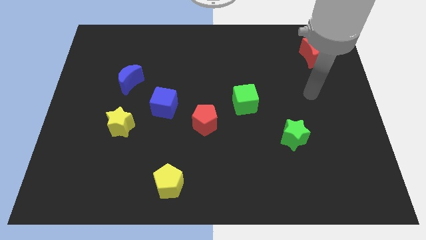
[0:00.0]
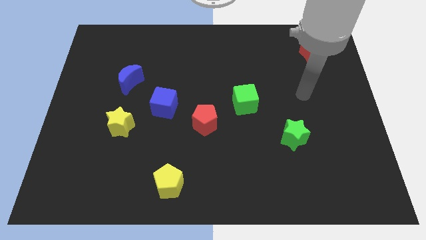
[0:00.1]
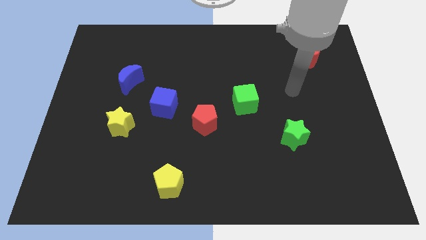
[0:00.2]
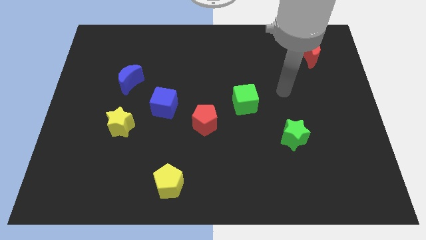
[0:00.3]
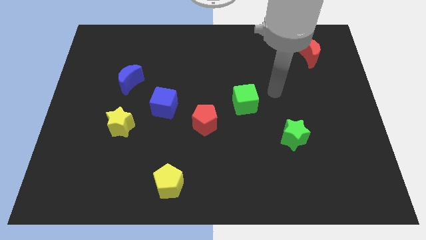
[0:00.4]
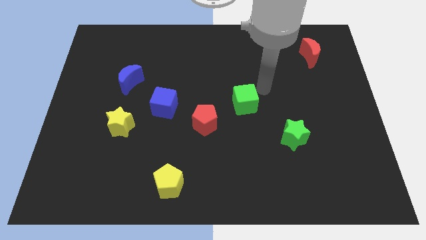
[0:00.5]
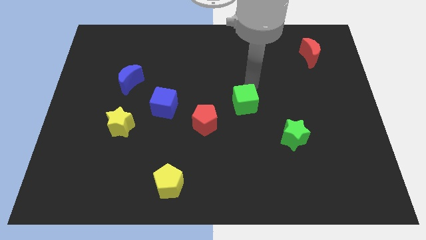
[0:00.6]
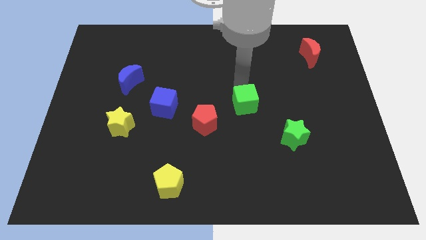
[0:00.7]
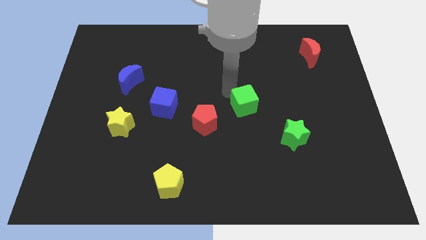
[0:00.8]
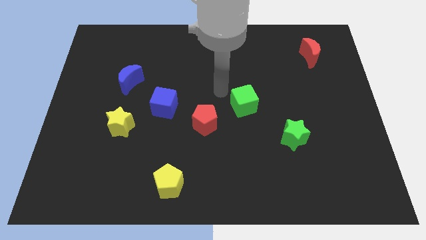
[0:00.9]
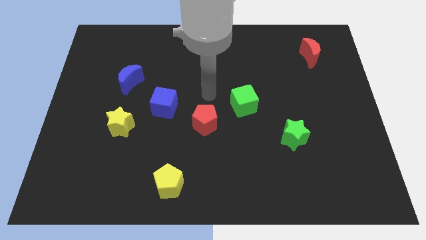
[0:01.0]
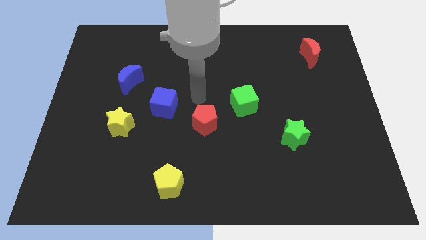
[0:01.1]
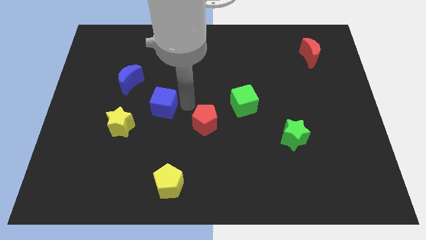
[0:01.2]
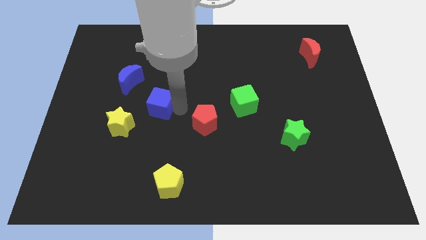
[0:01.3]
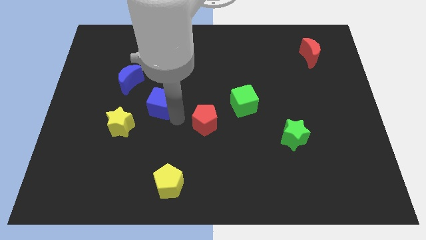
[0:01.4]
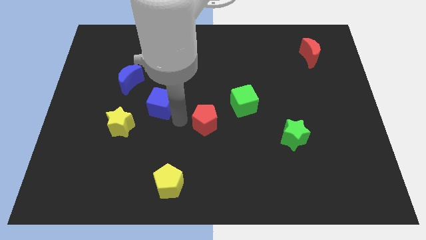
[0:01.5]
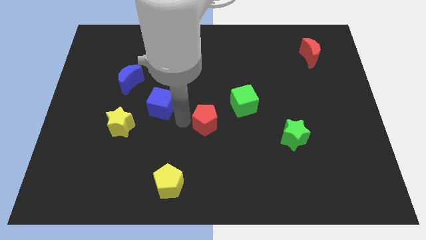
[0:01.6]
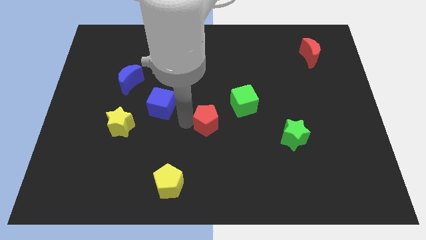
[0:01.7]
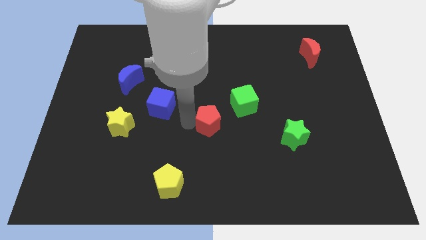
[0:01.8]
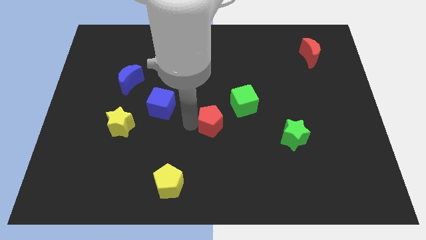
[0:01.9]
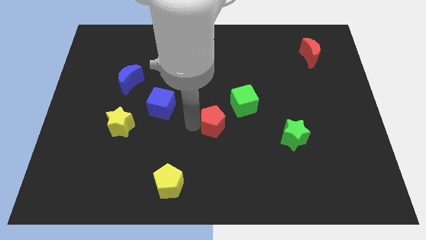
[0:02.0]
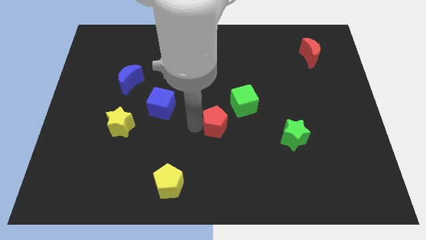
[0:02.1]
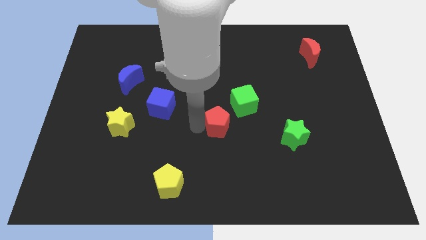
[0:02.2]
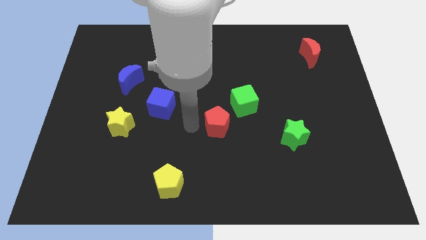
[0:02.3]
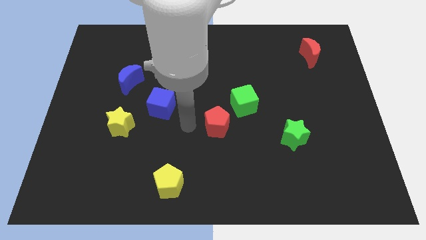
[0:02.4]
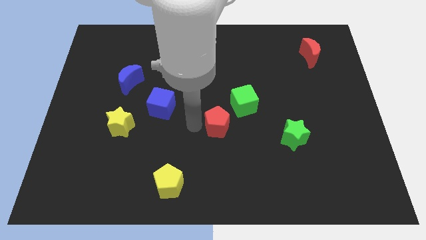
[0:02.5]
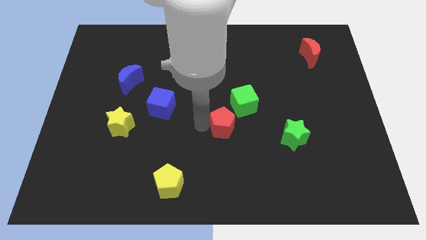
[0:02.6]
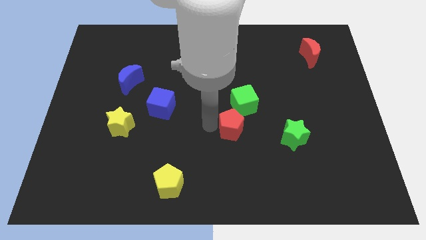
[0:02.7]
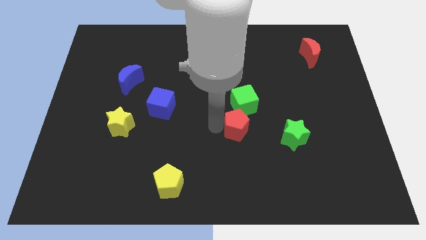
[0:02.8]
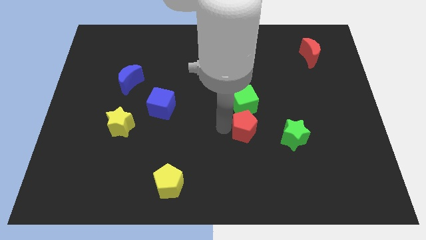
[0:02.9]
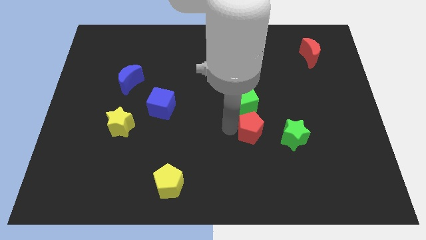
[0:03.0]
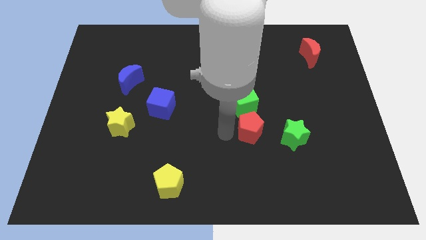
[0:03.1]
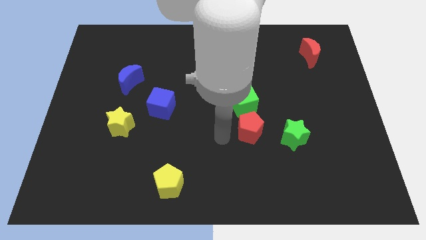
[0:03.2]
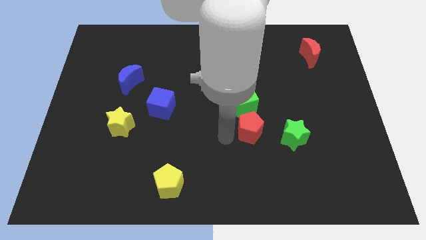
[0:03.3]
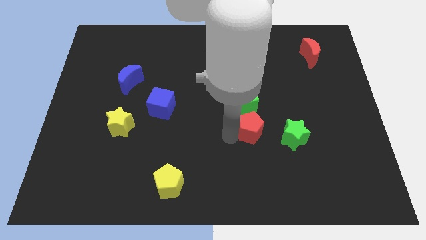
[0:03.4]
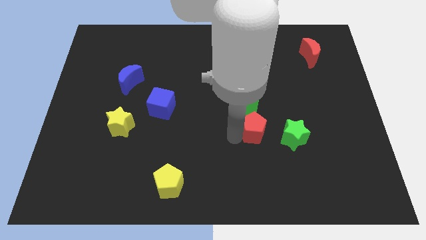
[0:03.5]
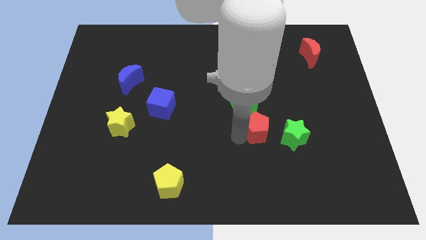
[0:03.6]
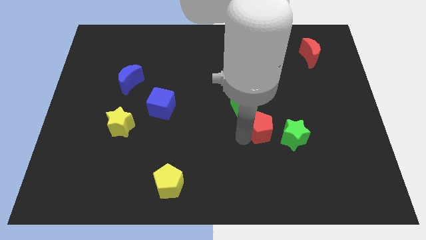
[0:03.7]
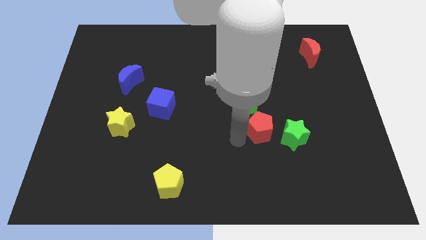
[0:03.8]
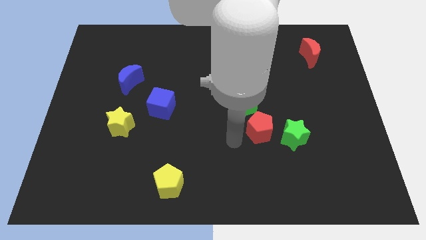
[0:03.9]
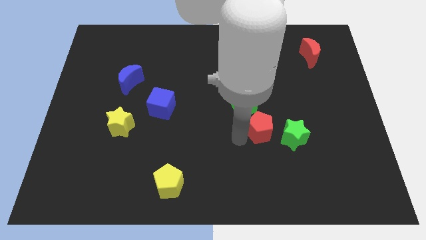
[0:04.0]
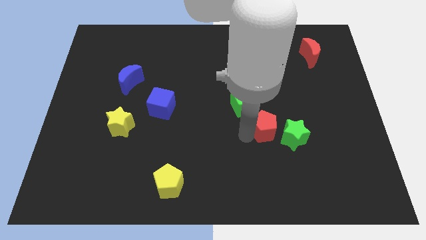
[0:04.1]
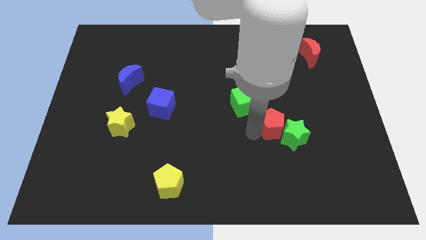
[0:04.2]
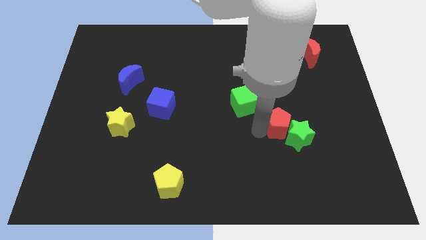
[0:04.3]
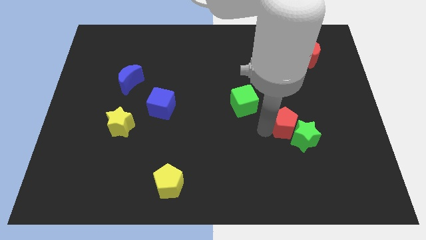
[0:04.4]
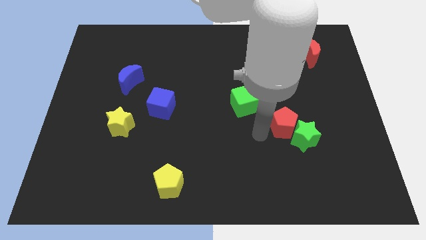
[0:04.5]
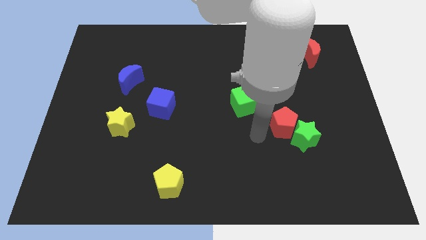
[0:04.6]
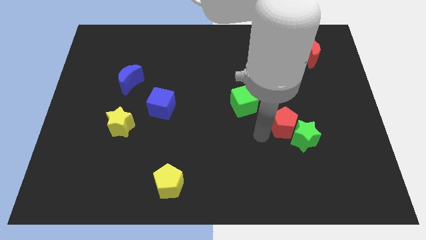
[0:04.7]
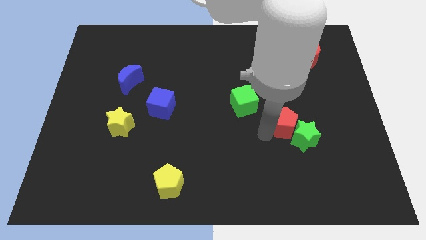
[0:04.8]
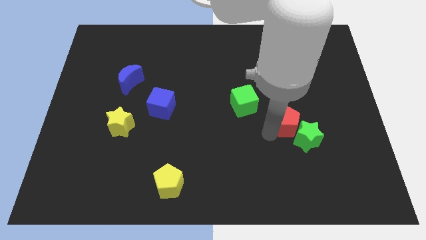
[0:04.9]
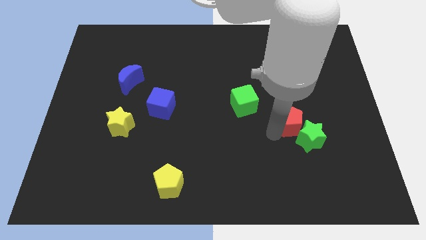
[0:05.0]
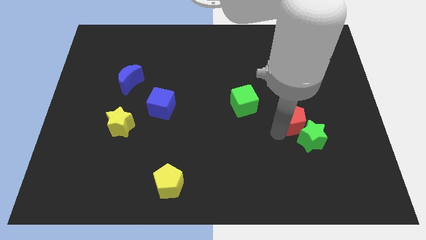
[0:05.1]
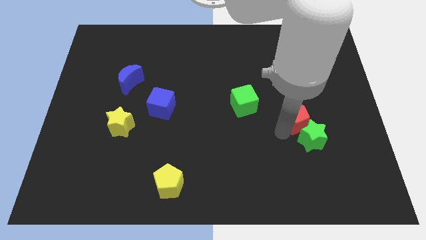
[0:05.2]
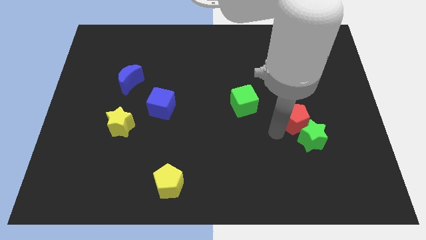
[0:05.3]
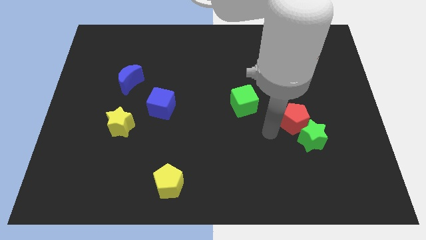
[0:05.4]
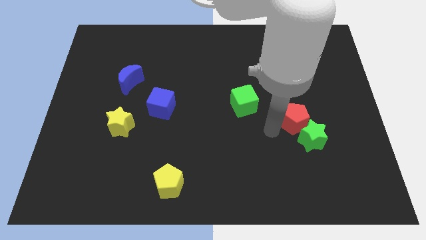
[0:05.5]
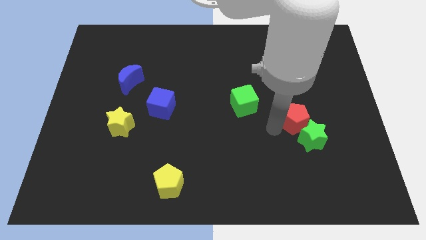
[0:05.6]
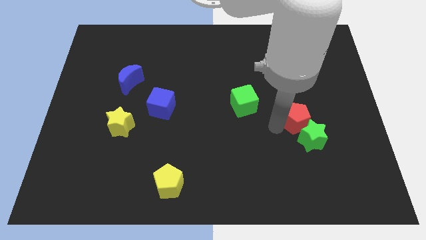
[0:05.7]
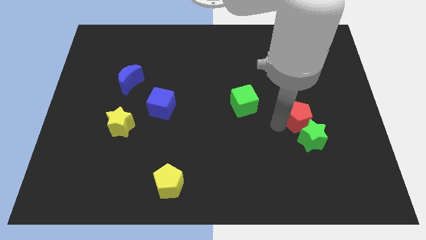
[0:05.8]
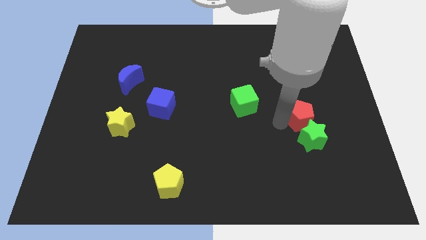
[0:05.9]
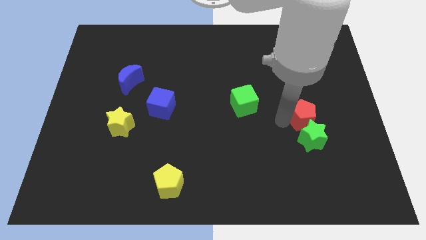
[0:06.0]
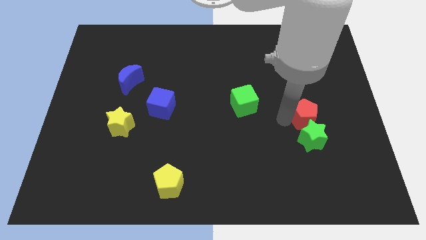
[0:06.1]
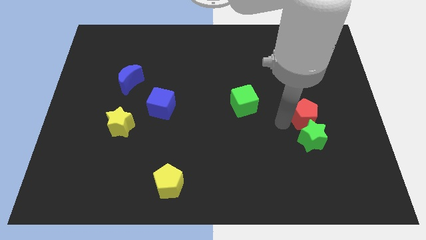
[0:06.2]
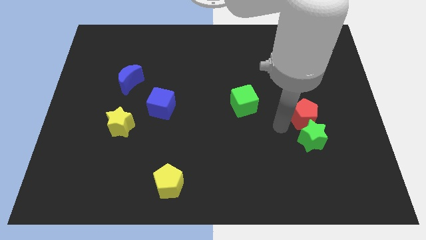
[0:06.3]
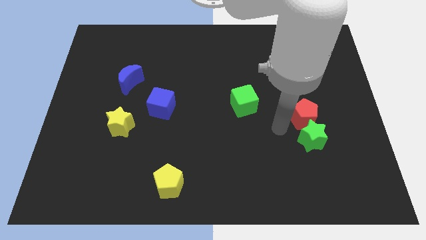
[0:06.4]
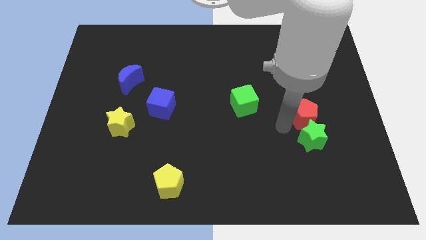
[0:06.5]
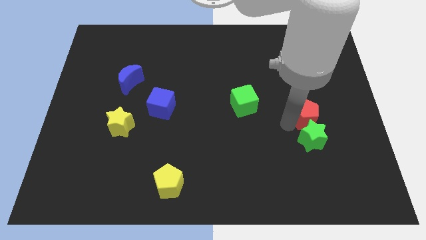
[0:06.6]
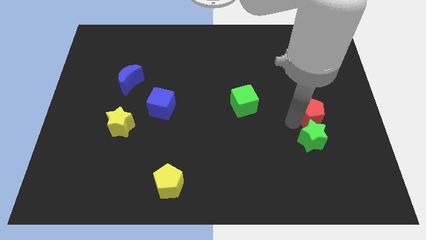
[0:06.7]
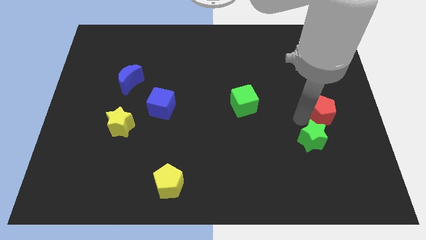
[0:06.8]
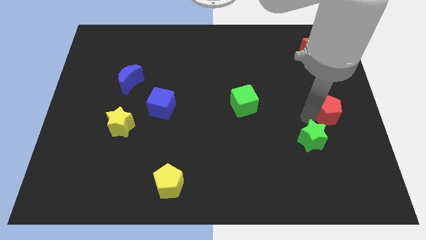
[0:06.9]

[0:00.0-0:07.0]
push the red pentagon to the right side
